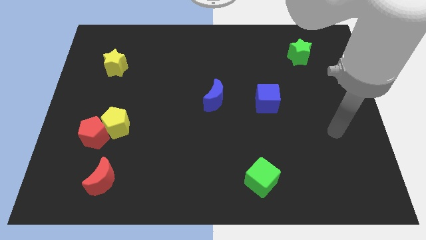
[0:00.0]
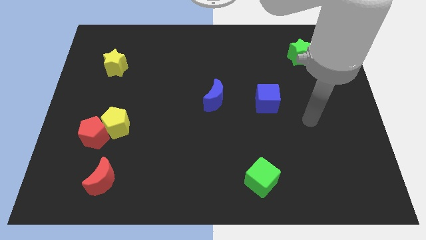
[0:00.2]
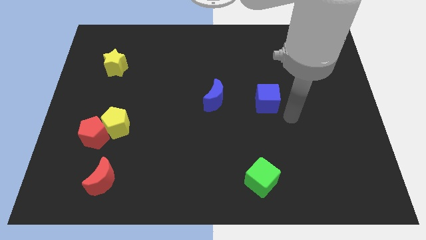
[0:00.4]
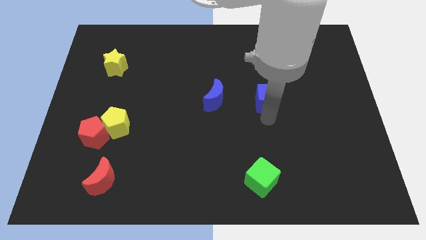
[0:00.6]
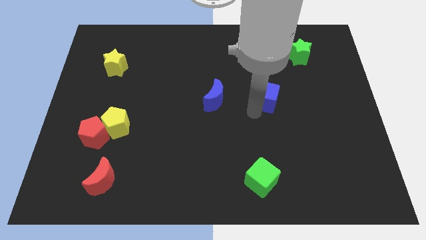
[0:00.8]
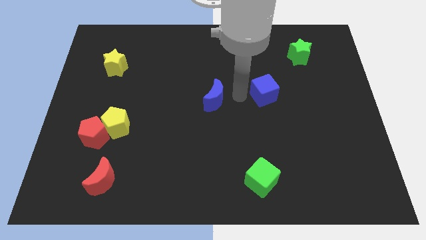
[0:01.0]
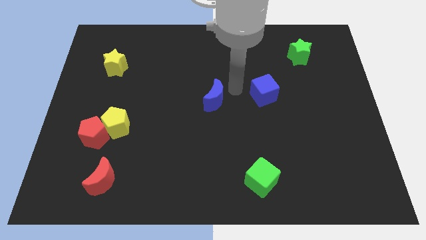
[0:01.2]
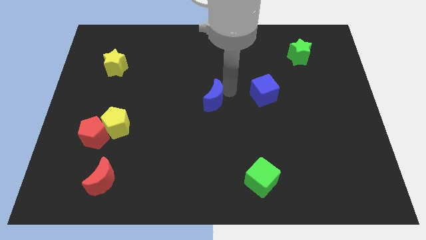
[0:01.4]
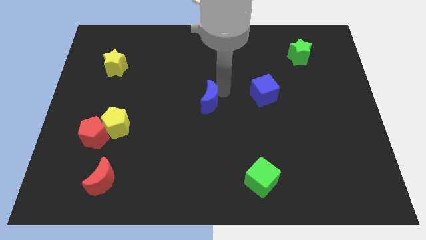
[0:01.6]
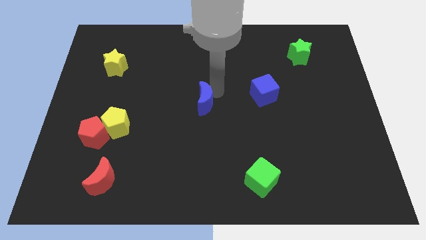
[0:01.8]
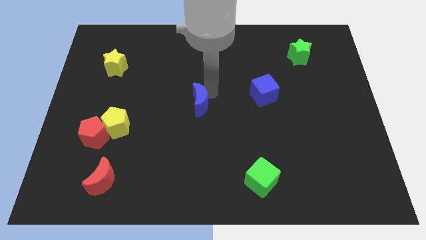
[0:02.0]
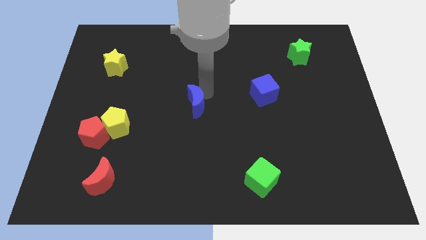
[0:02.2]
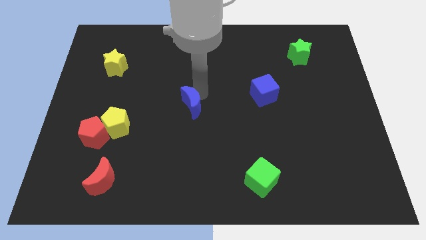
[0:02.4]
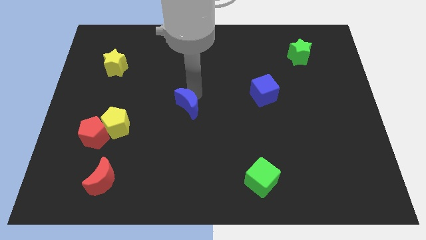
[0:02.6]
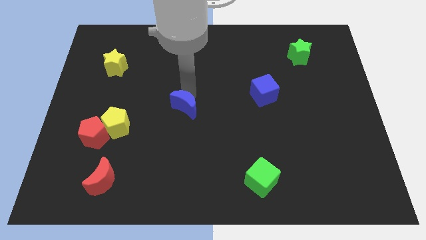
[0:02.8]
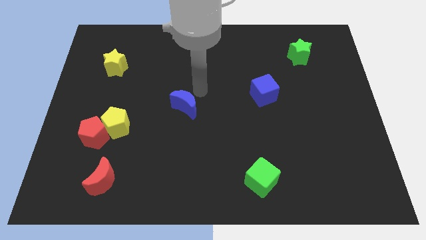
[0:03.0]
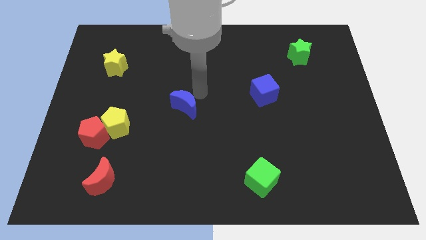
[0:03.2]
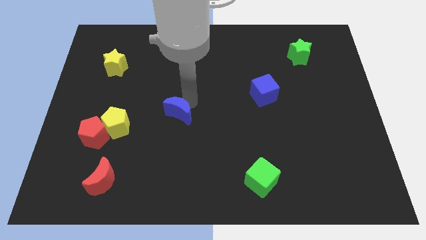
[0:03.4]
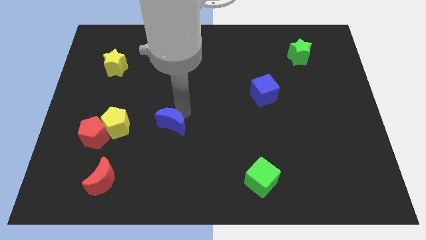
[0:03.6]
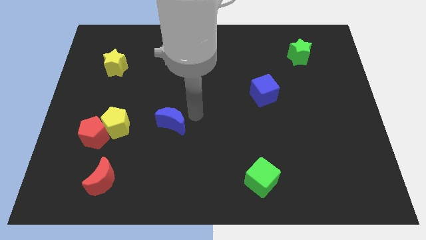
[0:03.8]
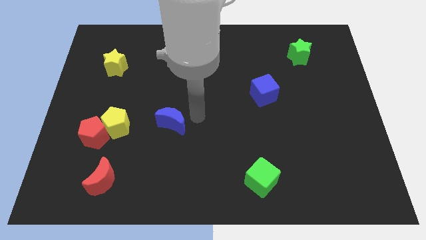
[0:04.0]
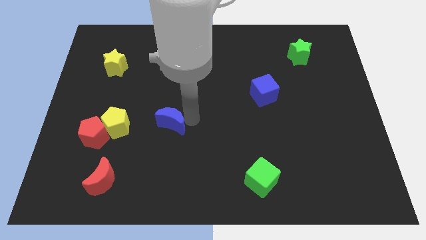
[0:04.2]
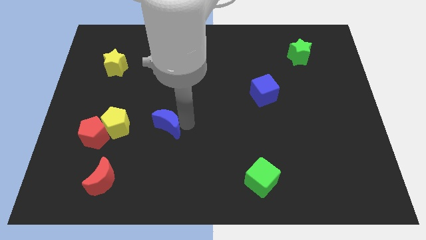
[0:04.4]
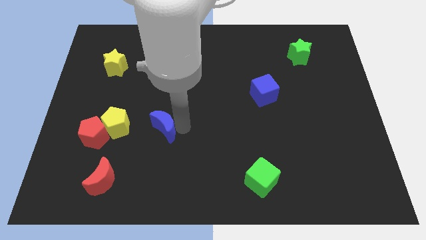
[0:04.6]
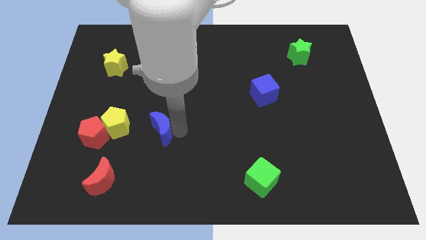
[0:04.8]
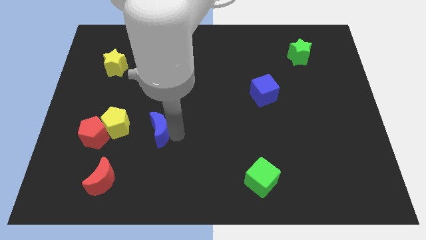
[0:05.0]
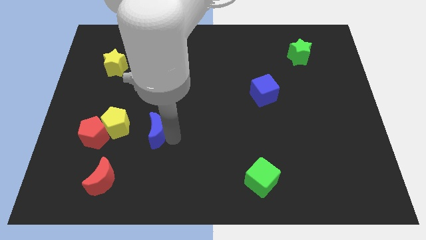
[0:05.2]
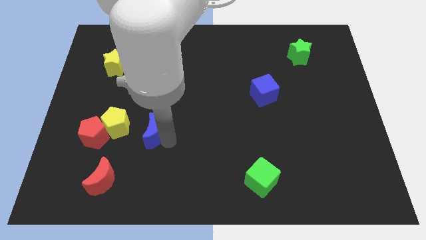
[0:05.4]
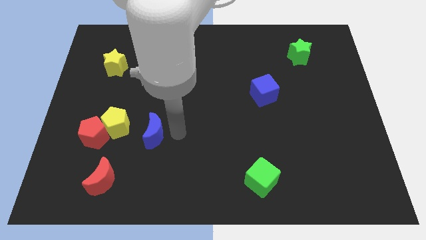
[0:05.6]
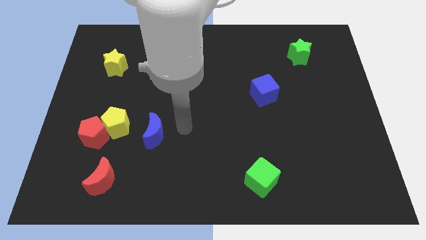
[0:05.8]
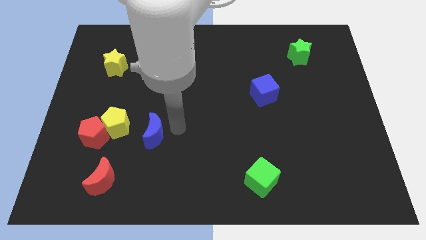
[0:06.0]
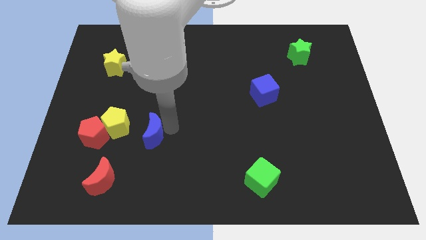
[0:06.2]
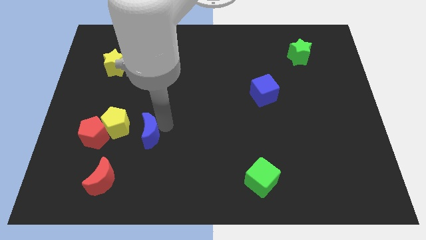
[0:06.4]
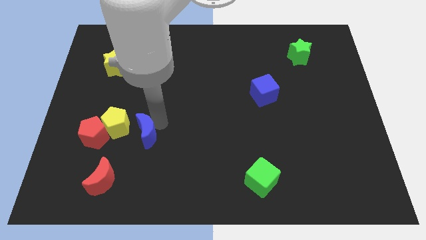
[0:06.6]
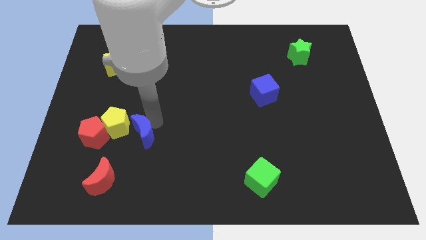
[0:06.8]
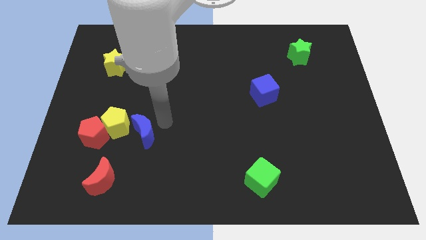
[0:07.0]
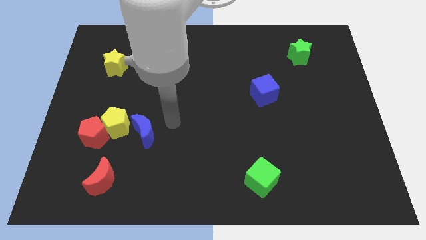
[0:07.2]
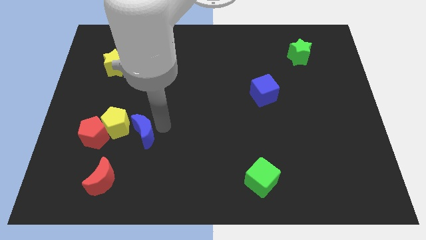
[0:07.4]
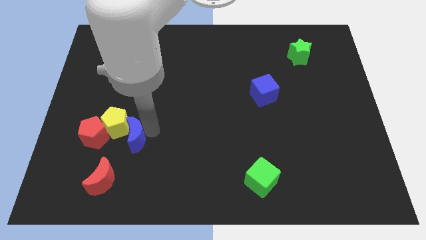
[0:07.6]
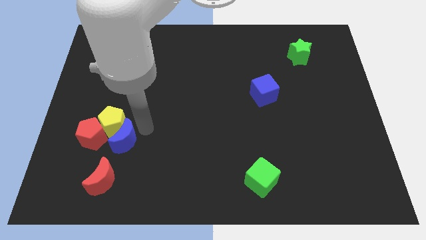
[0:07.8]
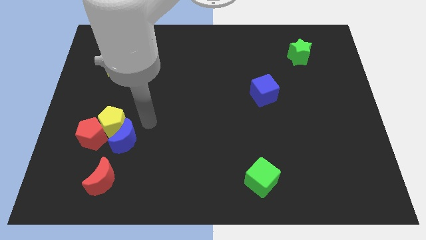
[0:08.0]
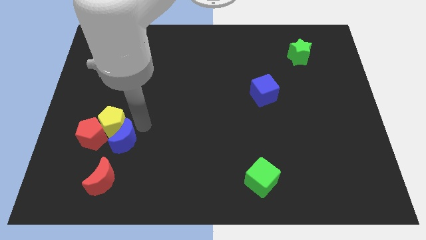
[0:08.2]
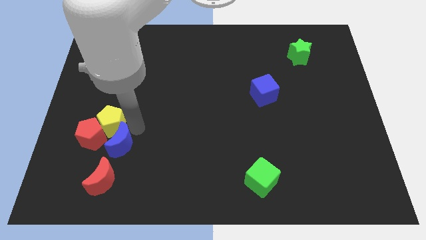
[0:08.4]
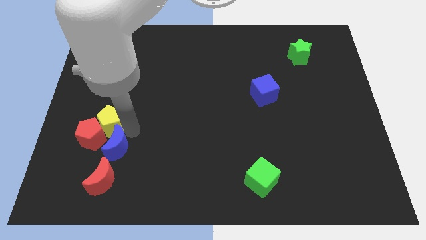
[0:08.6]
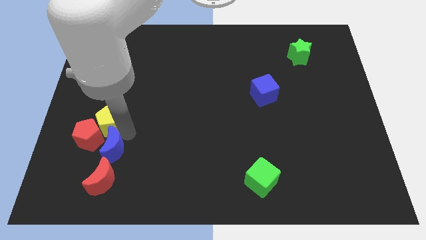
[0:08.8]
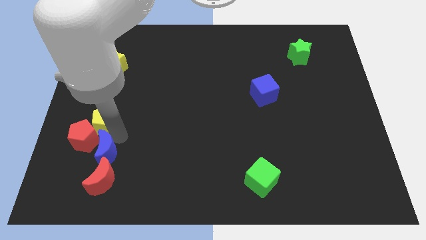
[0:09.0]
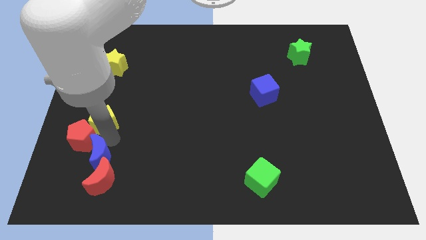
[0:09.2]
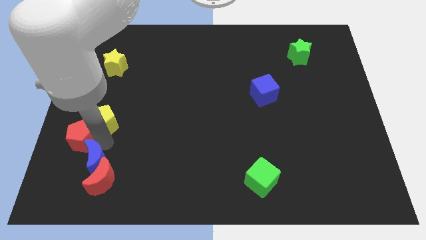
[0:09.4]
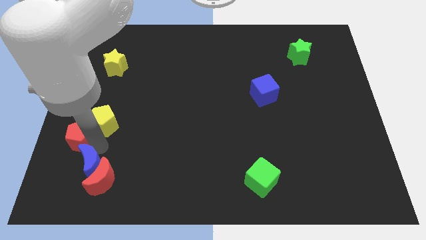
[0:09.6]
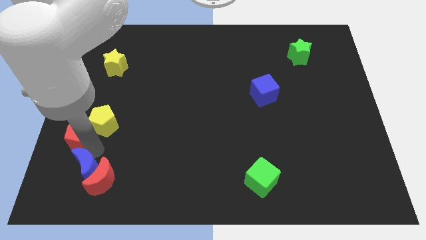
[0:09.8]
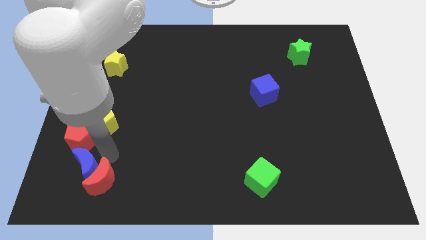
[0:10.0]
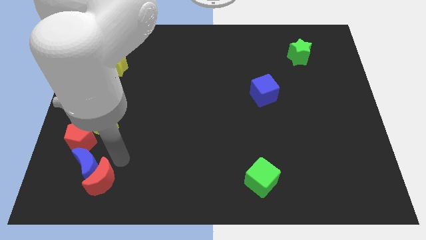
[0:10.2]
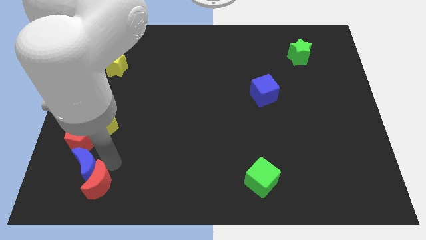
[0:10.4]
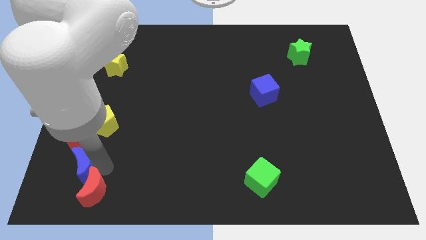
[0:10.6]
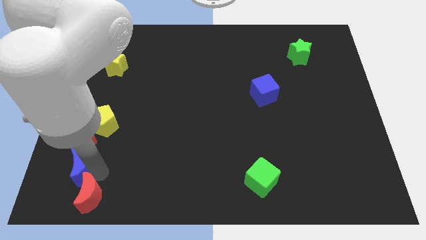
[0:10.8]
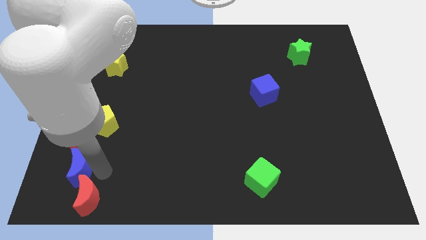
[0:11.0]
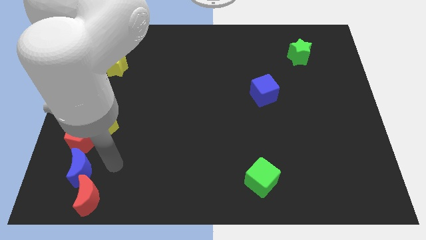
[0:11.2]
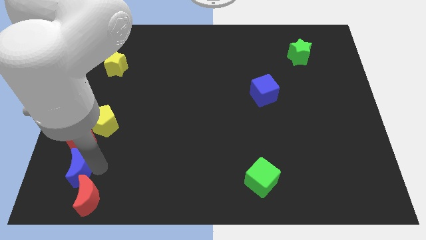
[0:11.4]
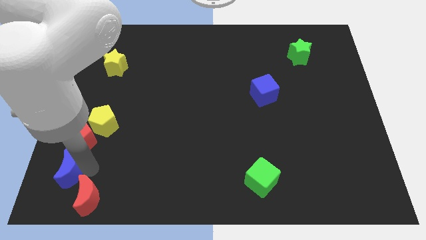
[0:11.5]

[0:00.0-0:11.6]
put the blue moon to the lower left corner
